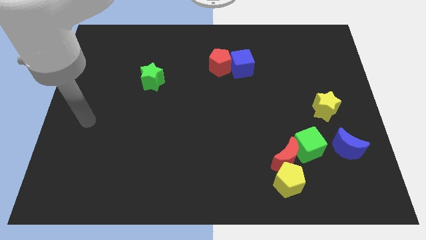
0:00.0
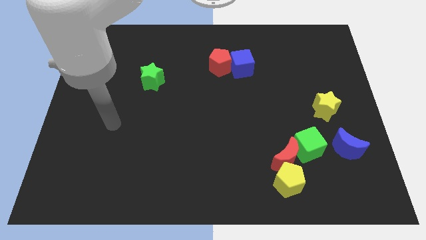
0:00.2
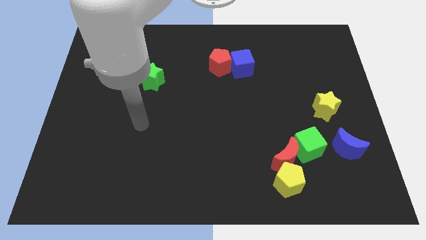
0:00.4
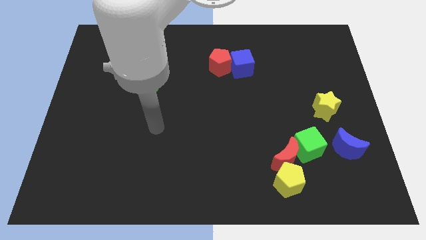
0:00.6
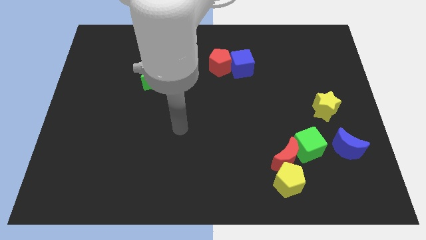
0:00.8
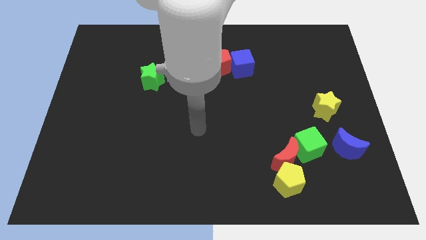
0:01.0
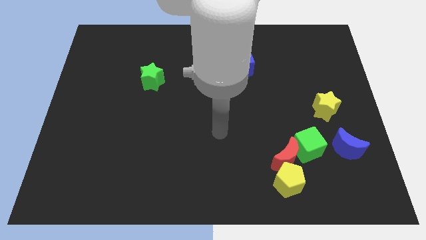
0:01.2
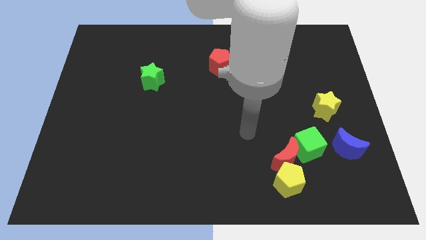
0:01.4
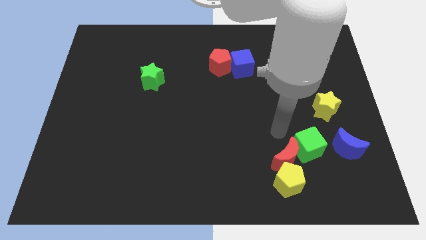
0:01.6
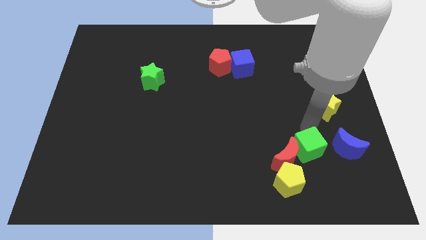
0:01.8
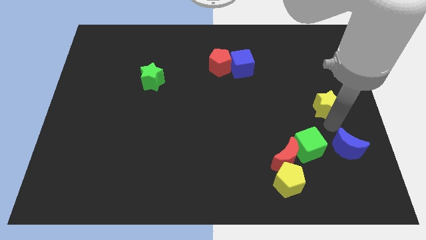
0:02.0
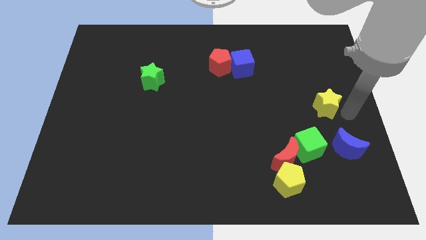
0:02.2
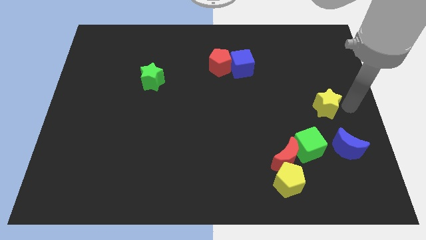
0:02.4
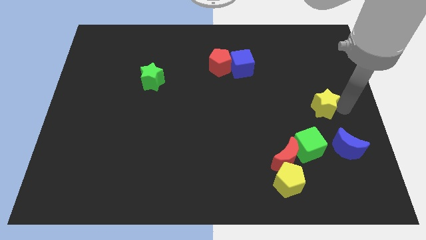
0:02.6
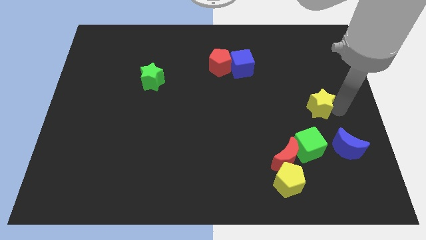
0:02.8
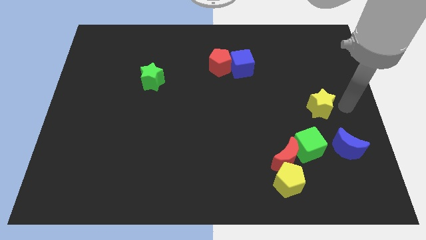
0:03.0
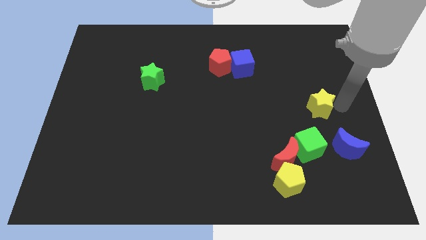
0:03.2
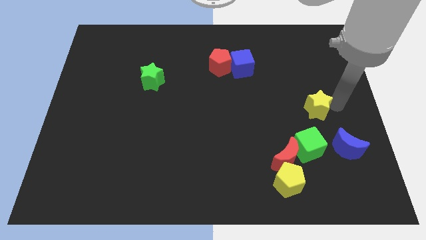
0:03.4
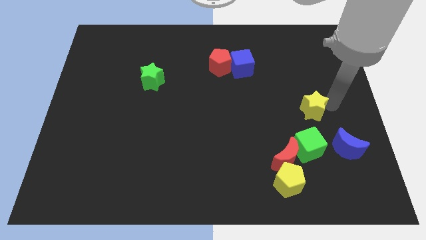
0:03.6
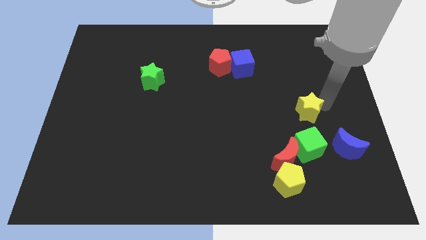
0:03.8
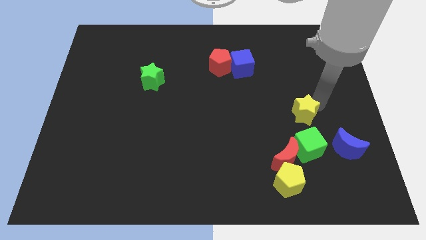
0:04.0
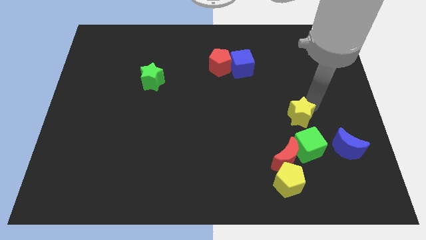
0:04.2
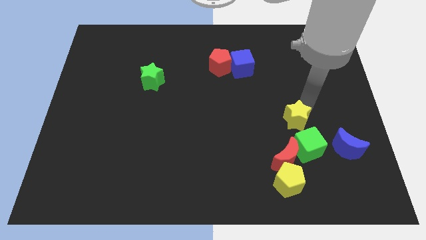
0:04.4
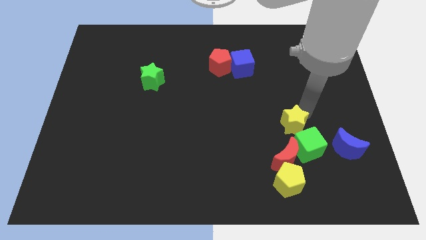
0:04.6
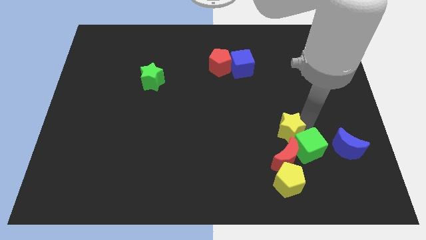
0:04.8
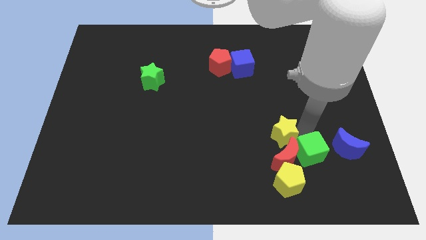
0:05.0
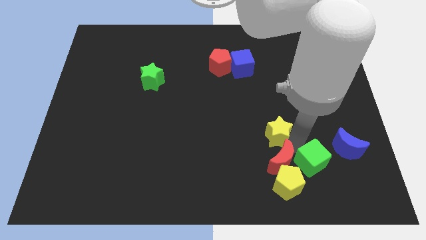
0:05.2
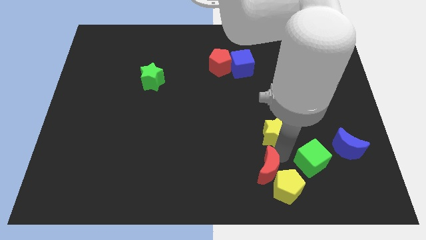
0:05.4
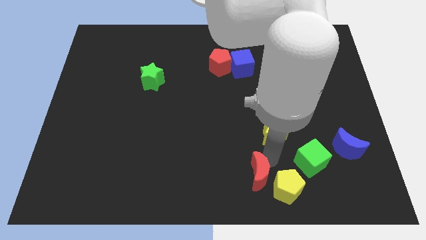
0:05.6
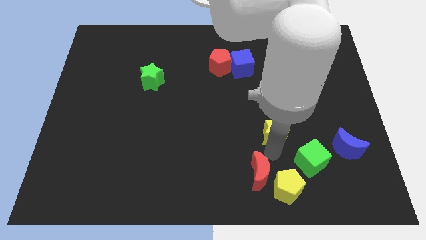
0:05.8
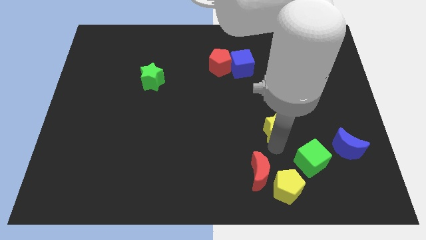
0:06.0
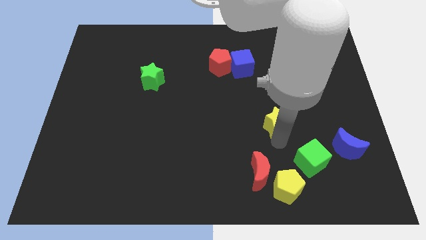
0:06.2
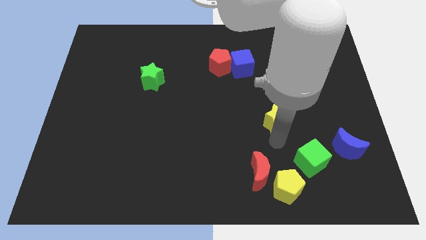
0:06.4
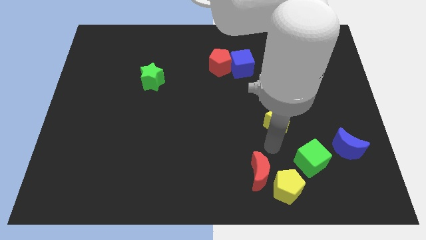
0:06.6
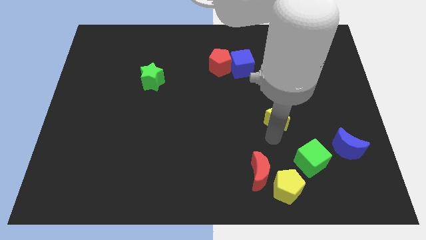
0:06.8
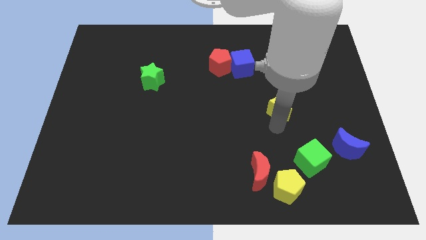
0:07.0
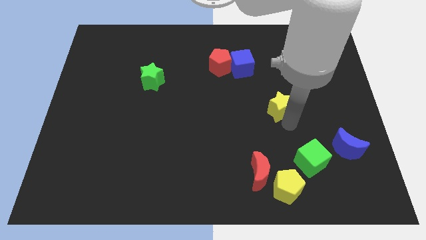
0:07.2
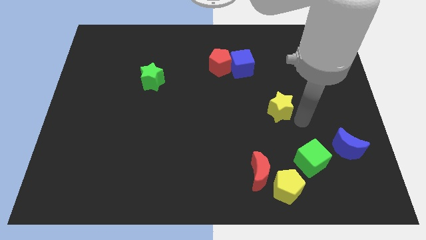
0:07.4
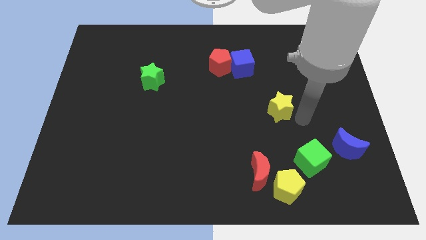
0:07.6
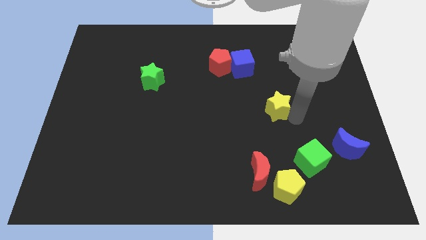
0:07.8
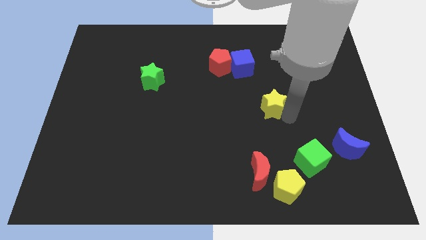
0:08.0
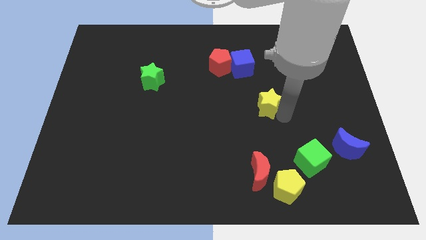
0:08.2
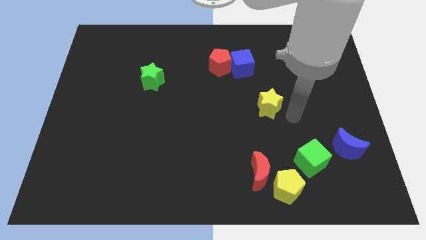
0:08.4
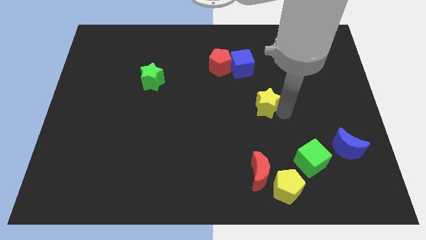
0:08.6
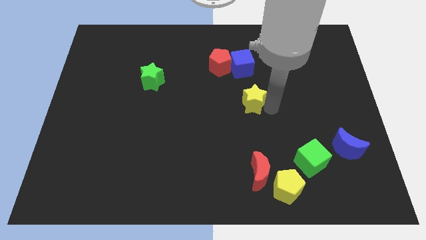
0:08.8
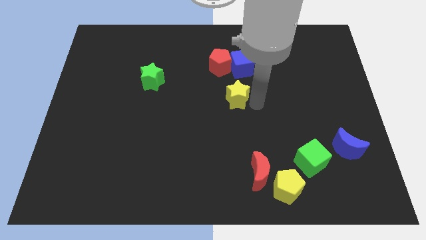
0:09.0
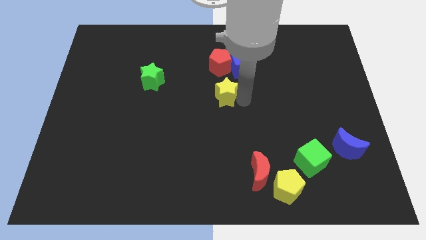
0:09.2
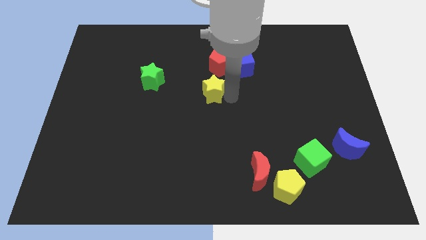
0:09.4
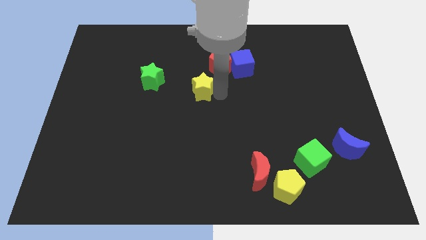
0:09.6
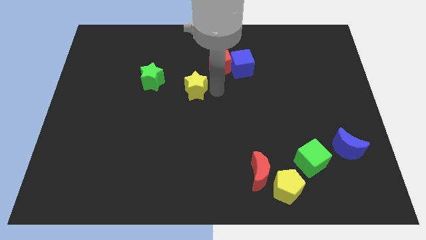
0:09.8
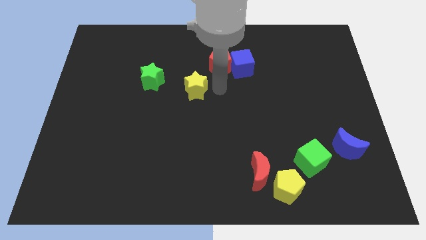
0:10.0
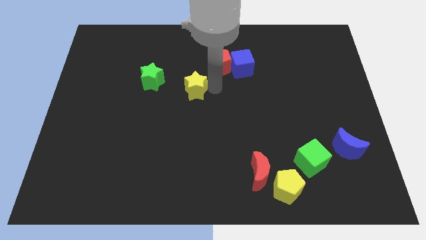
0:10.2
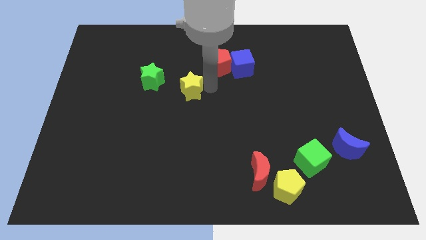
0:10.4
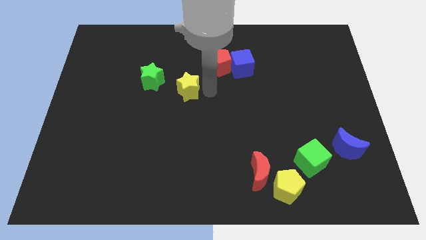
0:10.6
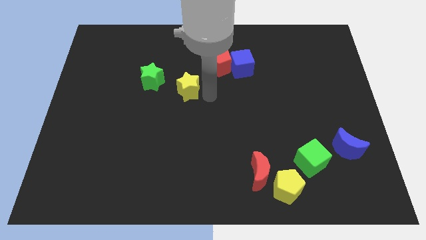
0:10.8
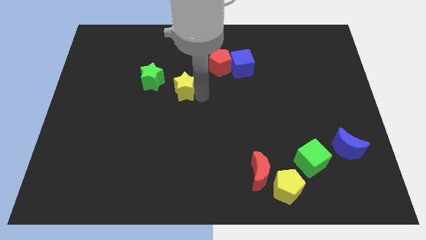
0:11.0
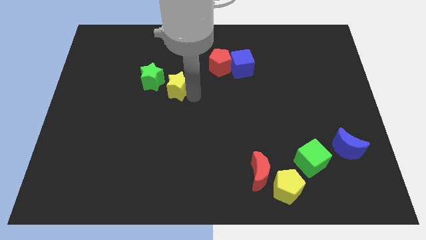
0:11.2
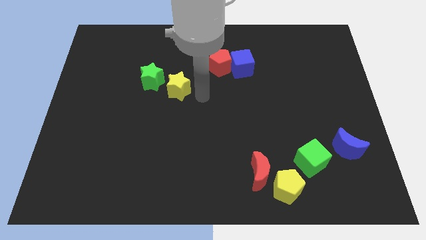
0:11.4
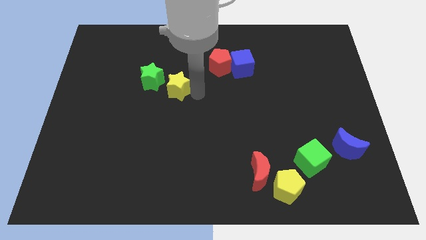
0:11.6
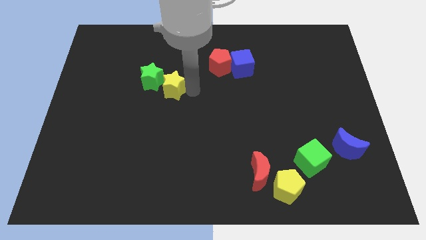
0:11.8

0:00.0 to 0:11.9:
slide the yellow star close to the green star

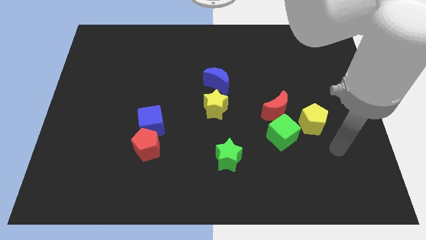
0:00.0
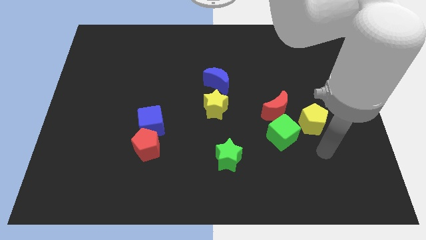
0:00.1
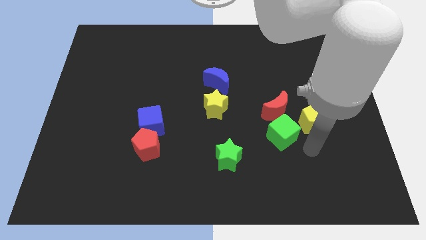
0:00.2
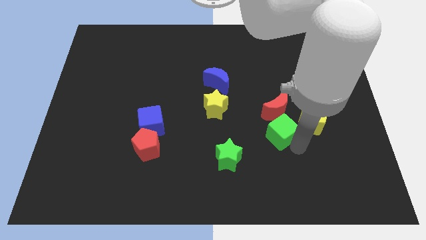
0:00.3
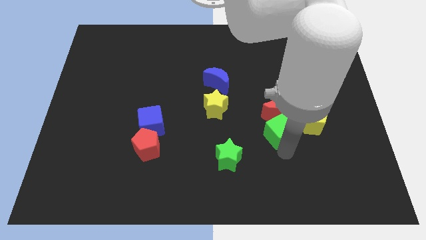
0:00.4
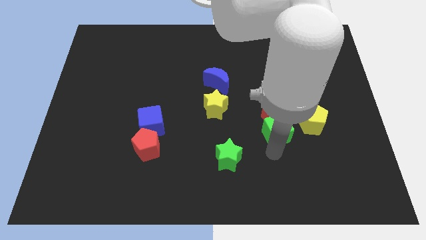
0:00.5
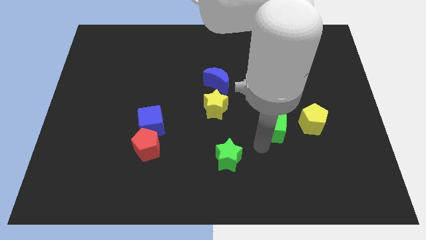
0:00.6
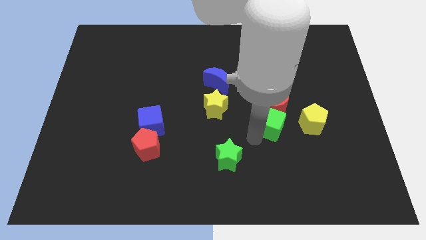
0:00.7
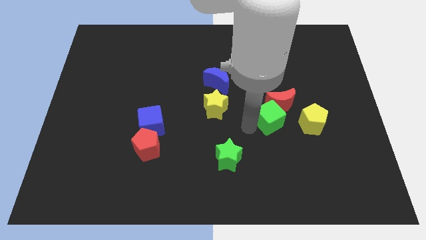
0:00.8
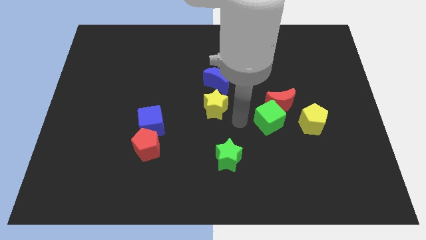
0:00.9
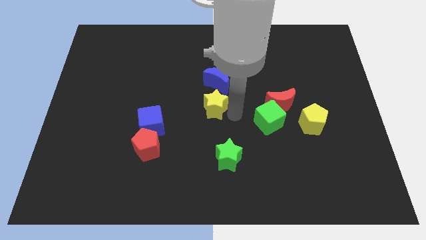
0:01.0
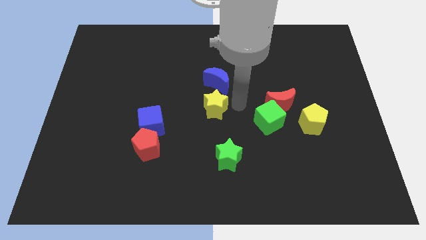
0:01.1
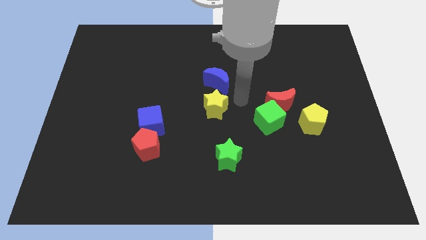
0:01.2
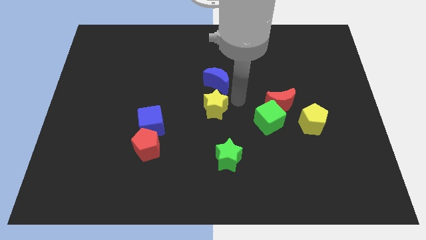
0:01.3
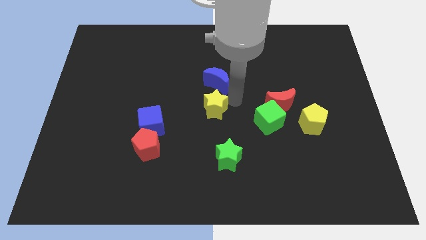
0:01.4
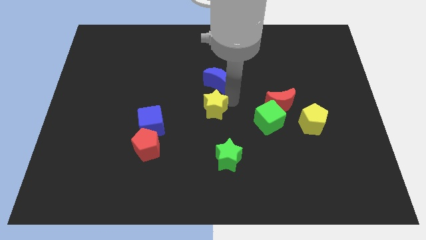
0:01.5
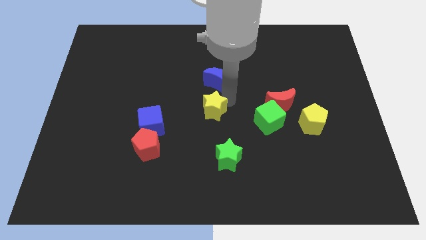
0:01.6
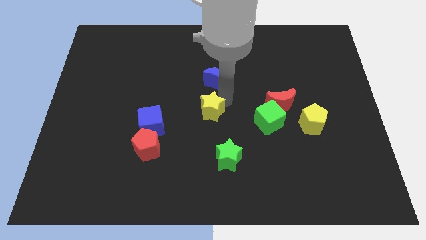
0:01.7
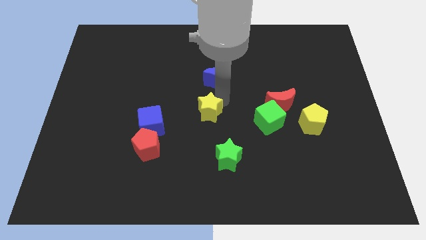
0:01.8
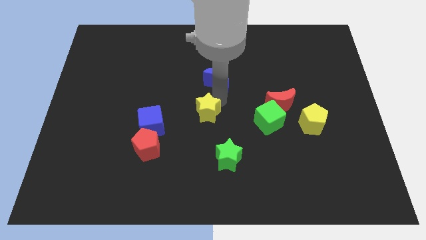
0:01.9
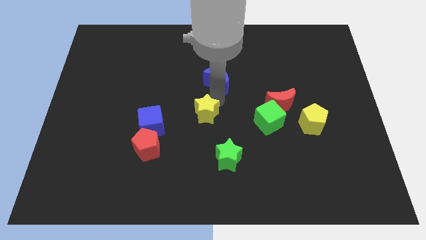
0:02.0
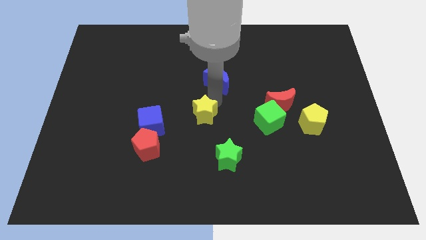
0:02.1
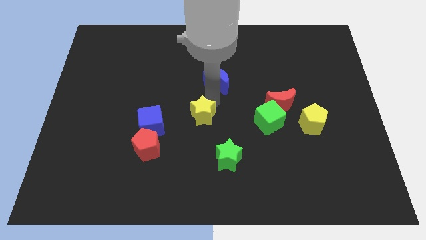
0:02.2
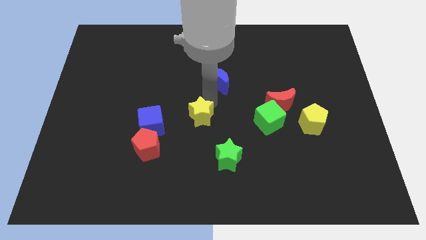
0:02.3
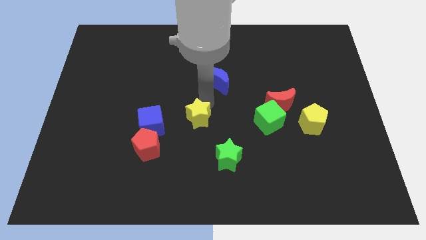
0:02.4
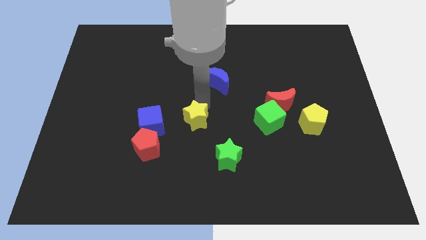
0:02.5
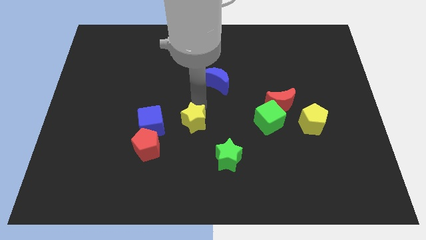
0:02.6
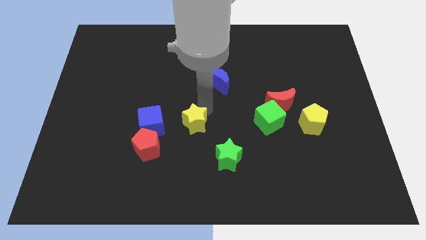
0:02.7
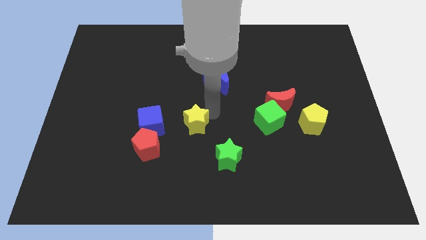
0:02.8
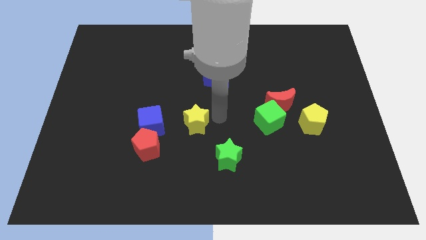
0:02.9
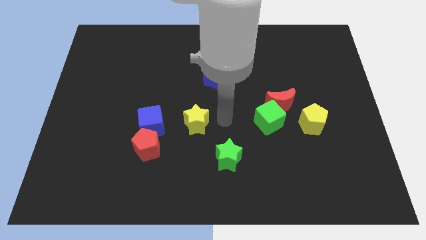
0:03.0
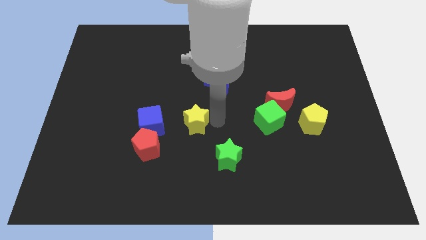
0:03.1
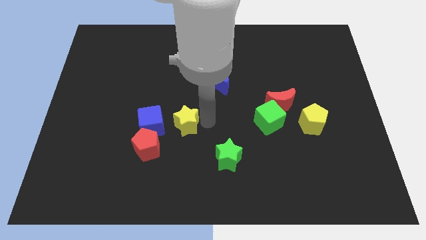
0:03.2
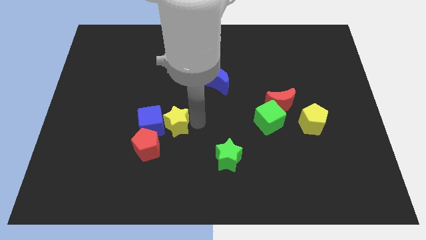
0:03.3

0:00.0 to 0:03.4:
push the yellow star to the blue cube
